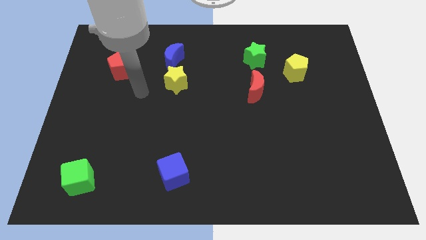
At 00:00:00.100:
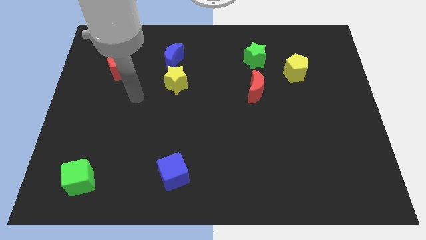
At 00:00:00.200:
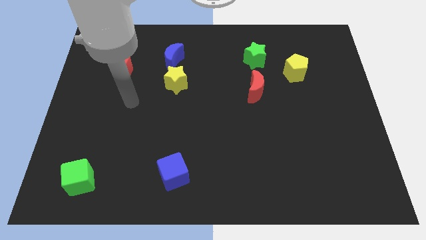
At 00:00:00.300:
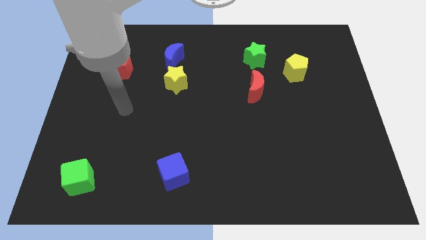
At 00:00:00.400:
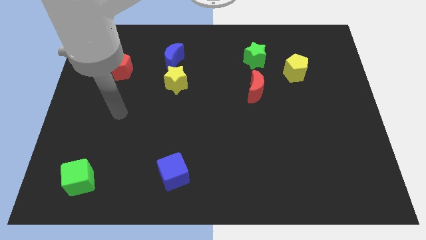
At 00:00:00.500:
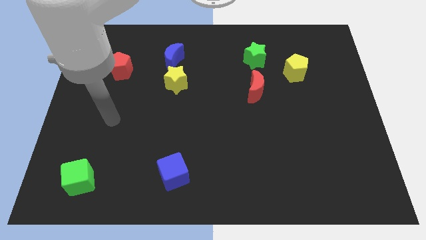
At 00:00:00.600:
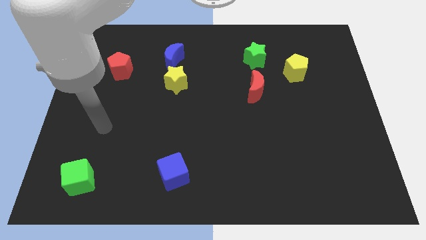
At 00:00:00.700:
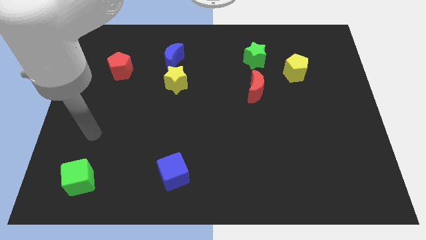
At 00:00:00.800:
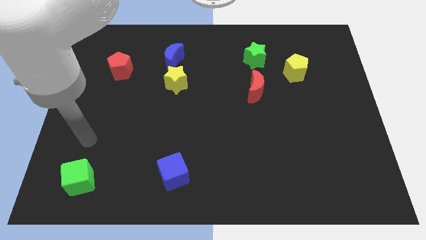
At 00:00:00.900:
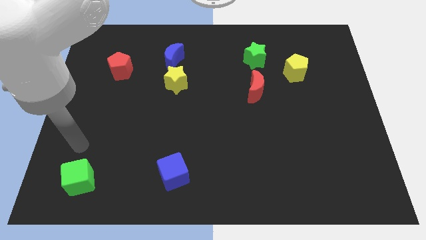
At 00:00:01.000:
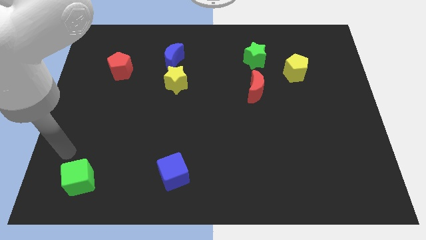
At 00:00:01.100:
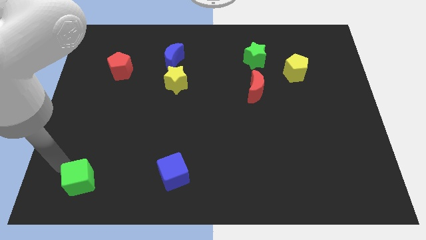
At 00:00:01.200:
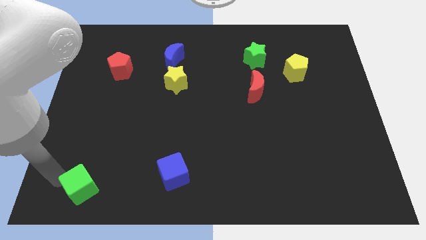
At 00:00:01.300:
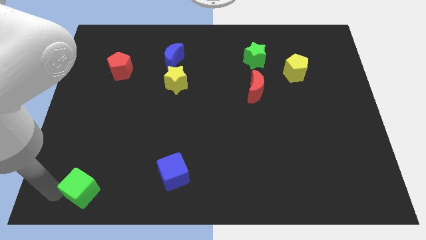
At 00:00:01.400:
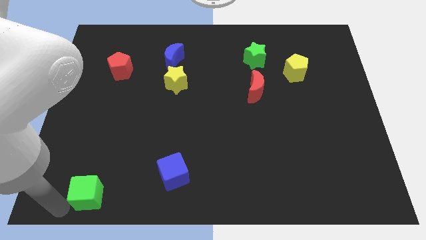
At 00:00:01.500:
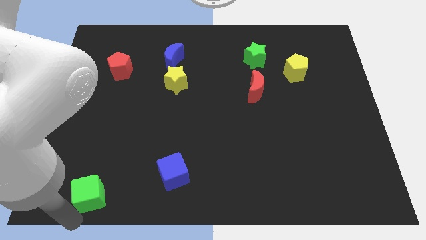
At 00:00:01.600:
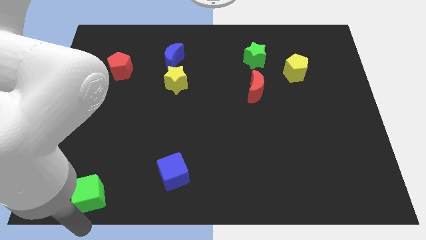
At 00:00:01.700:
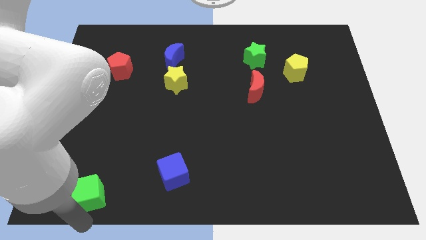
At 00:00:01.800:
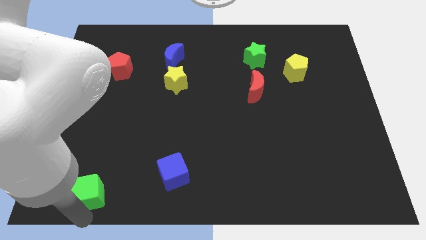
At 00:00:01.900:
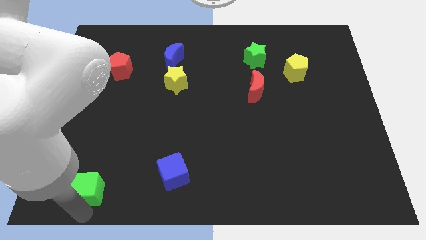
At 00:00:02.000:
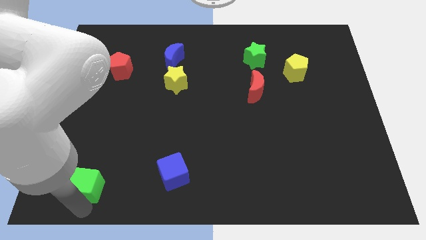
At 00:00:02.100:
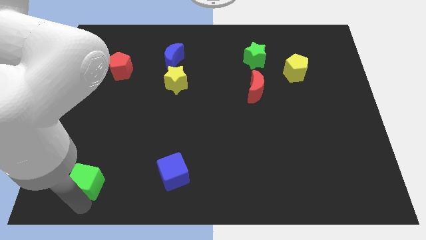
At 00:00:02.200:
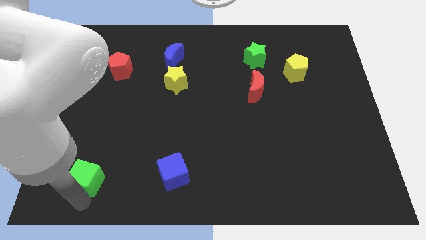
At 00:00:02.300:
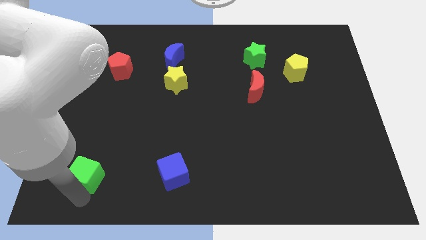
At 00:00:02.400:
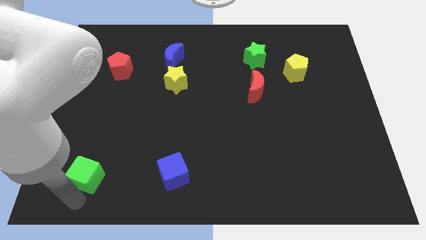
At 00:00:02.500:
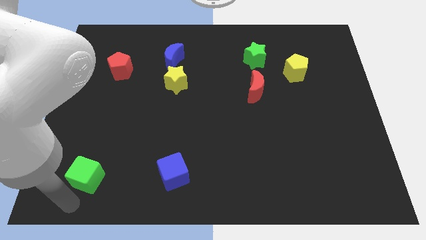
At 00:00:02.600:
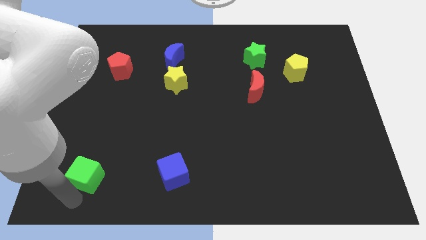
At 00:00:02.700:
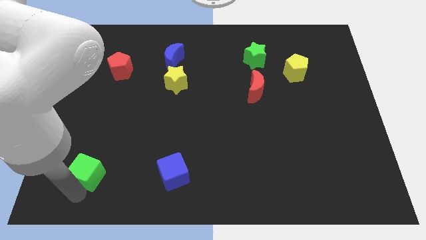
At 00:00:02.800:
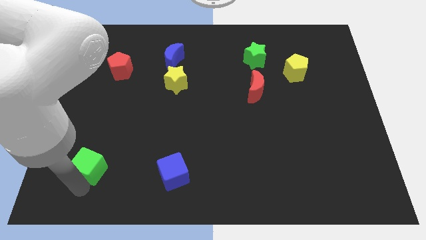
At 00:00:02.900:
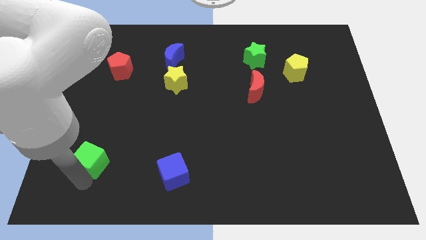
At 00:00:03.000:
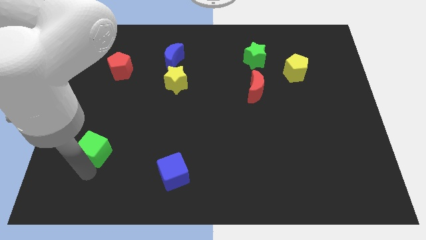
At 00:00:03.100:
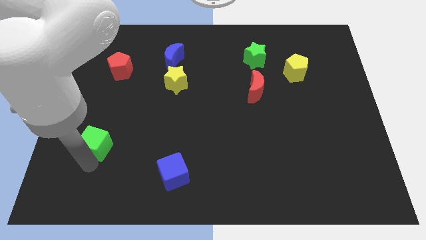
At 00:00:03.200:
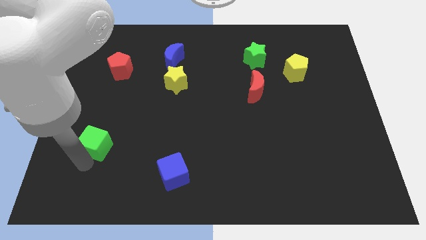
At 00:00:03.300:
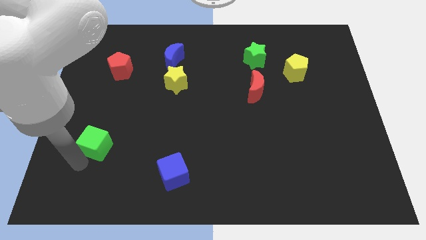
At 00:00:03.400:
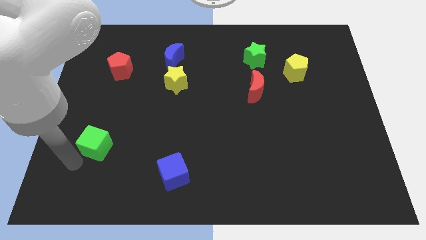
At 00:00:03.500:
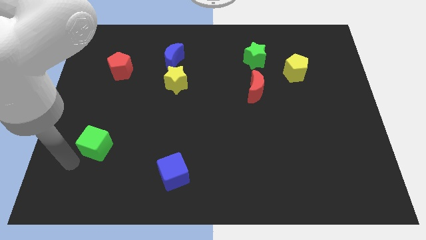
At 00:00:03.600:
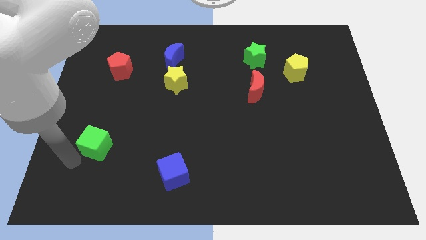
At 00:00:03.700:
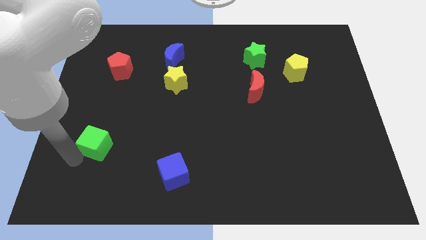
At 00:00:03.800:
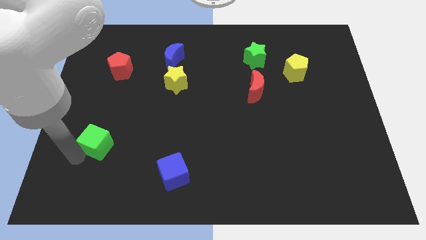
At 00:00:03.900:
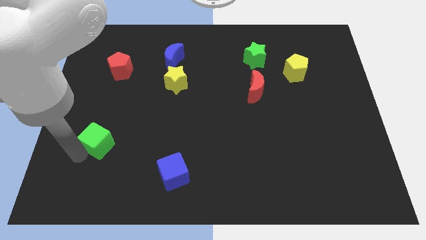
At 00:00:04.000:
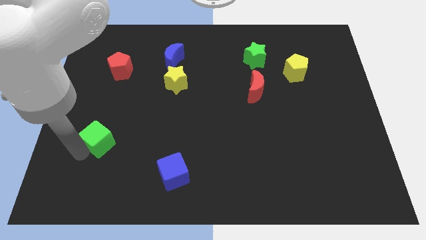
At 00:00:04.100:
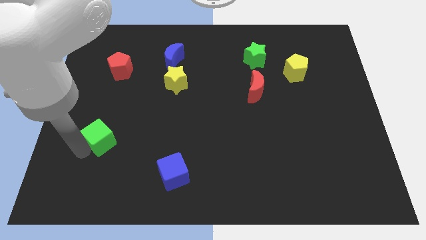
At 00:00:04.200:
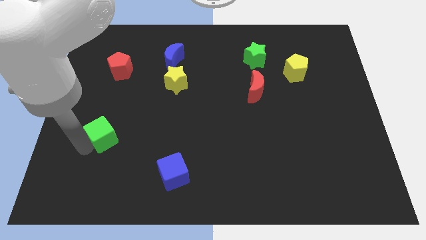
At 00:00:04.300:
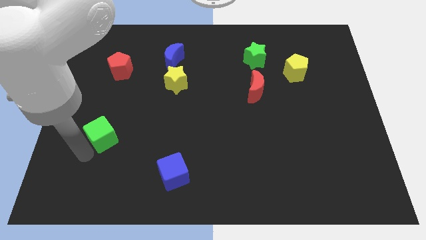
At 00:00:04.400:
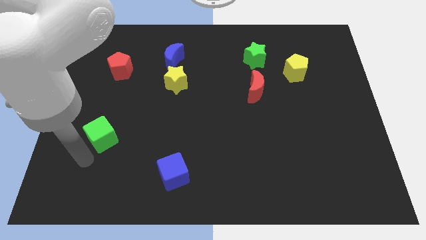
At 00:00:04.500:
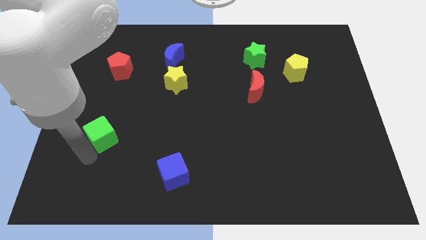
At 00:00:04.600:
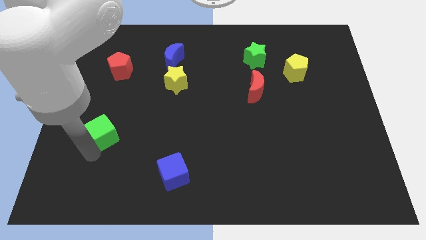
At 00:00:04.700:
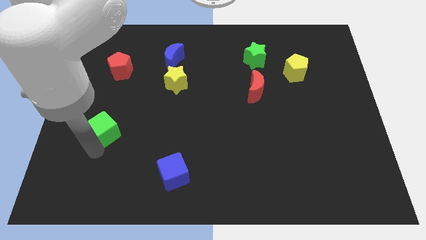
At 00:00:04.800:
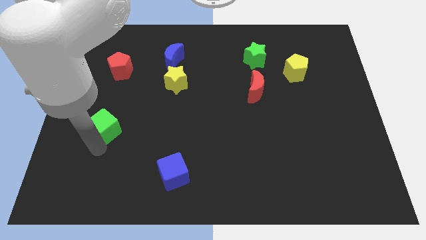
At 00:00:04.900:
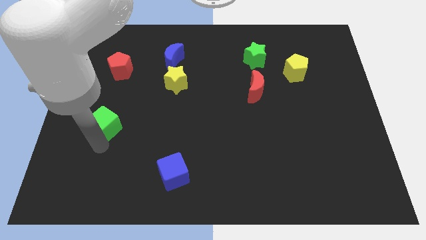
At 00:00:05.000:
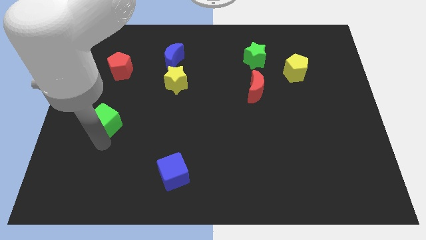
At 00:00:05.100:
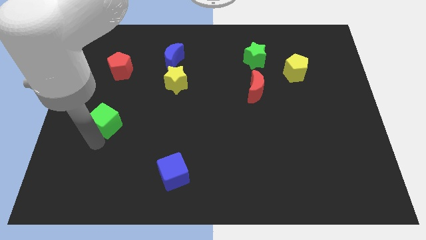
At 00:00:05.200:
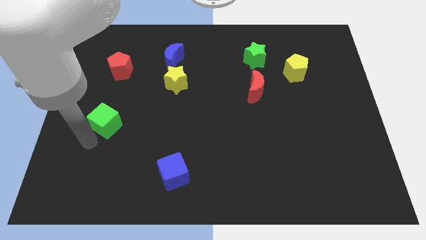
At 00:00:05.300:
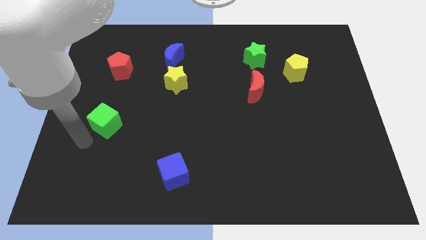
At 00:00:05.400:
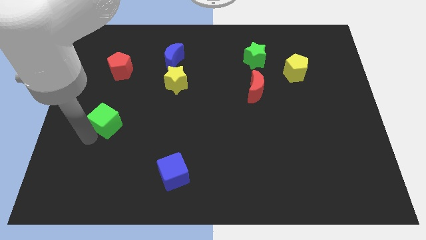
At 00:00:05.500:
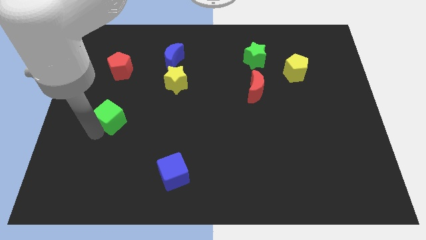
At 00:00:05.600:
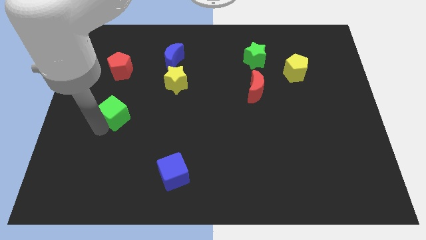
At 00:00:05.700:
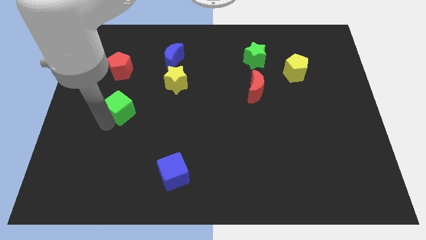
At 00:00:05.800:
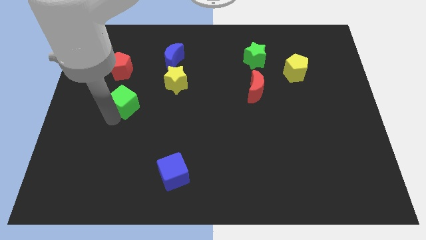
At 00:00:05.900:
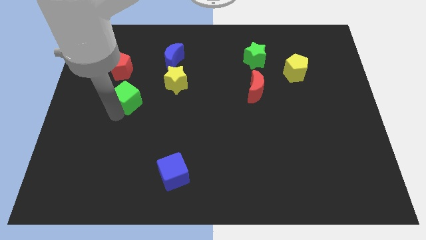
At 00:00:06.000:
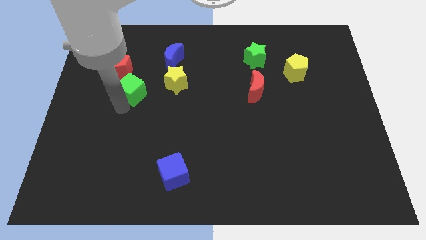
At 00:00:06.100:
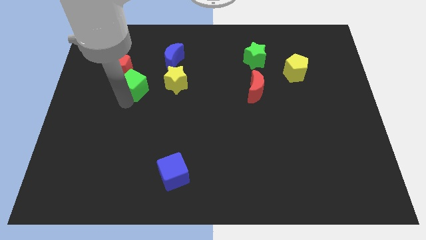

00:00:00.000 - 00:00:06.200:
slide the green cube to the bottom left side of the blue moon

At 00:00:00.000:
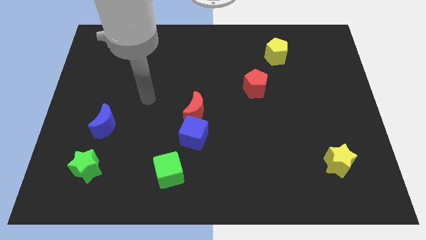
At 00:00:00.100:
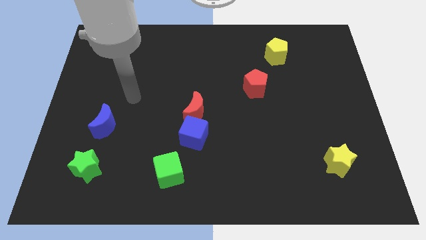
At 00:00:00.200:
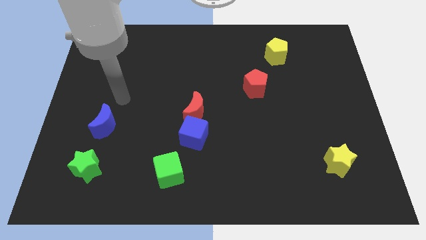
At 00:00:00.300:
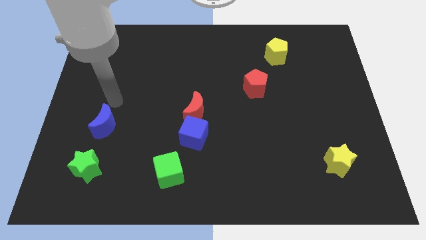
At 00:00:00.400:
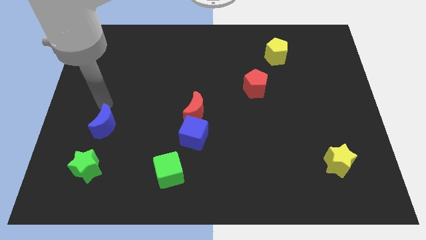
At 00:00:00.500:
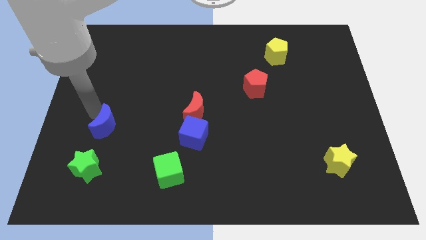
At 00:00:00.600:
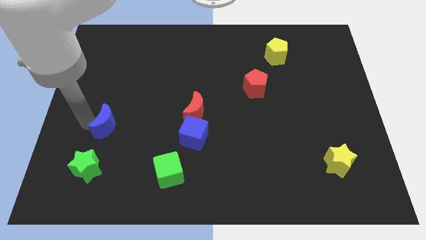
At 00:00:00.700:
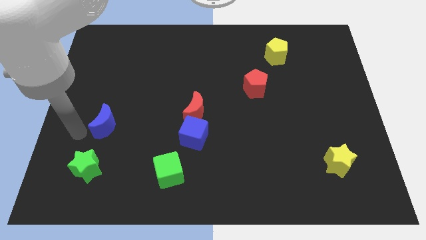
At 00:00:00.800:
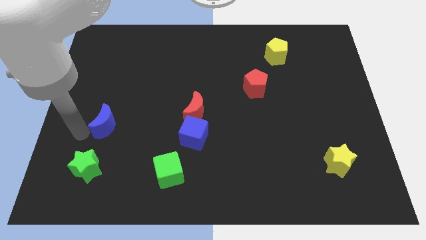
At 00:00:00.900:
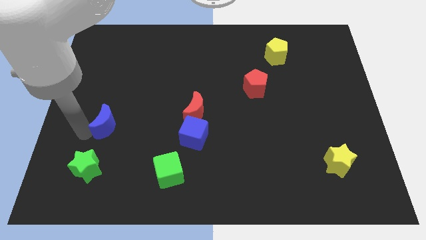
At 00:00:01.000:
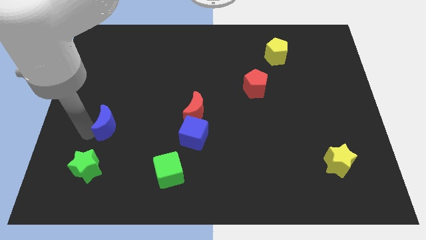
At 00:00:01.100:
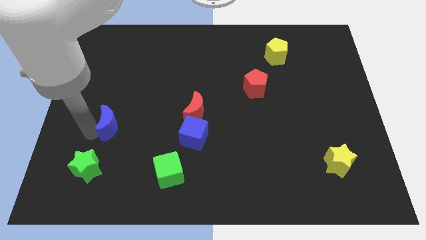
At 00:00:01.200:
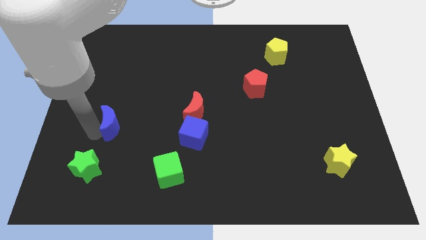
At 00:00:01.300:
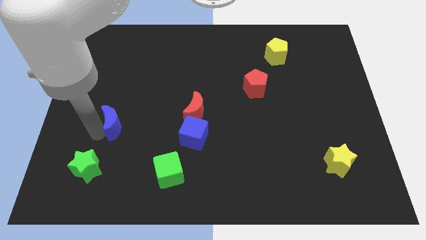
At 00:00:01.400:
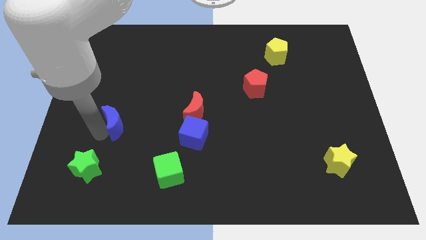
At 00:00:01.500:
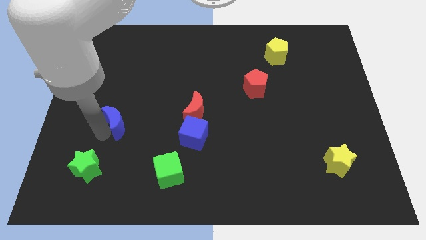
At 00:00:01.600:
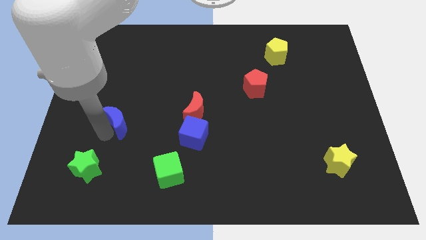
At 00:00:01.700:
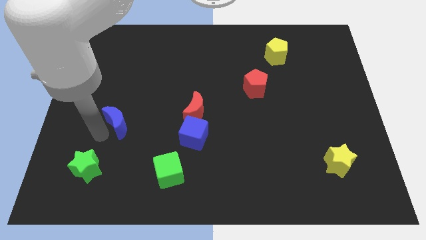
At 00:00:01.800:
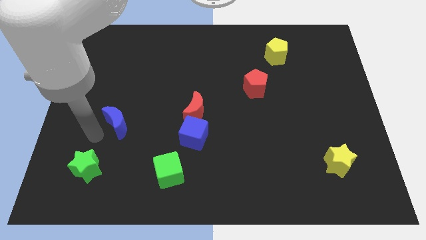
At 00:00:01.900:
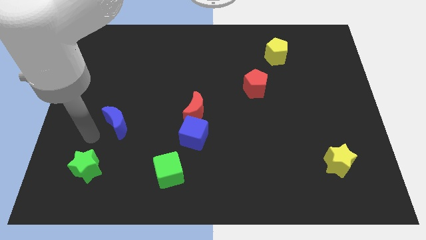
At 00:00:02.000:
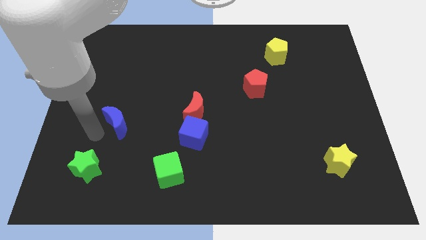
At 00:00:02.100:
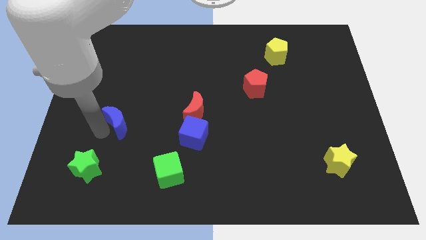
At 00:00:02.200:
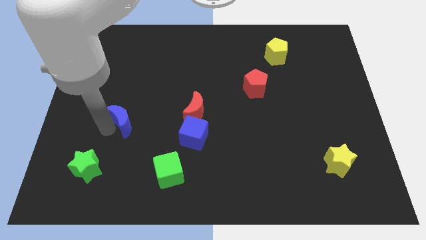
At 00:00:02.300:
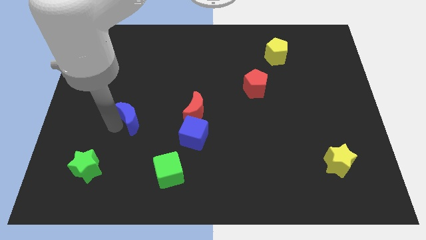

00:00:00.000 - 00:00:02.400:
move the blue moon just left of the red moon
